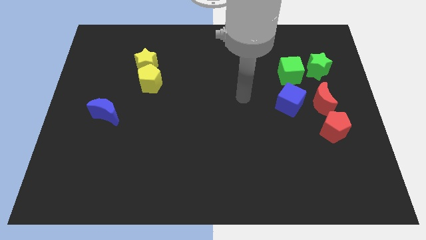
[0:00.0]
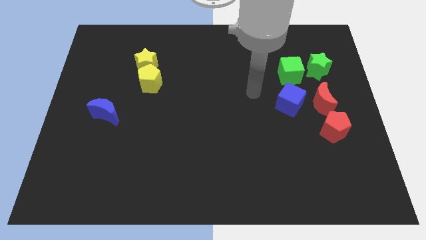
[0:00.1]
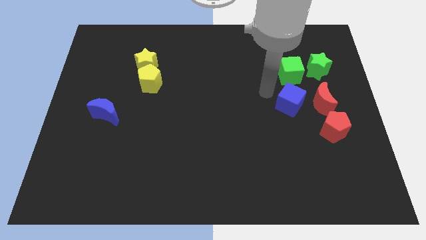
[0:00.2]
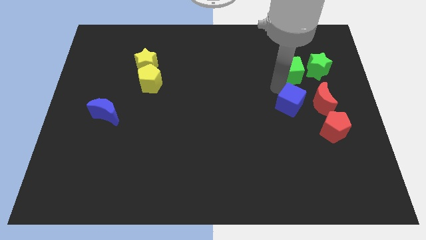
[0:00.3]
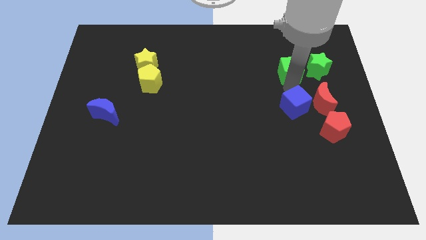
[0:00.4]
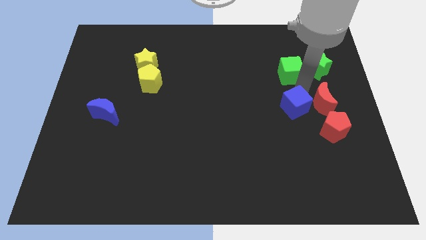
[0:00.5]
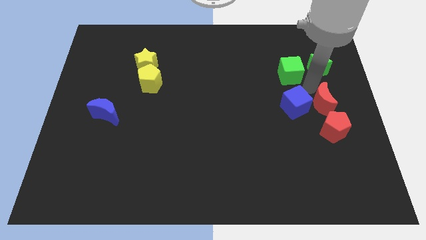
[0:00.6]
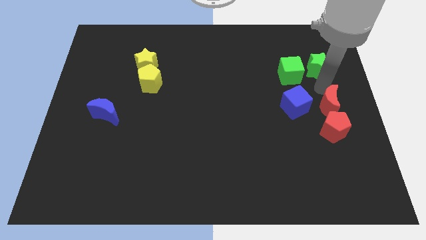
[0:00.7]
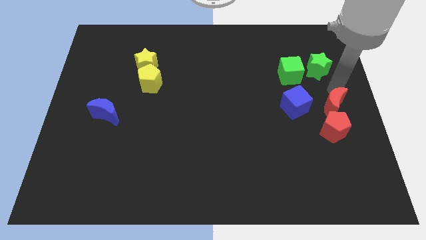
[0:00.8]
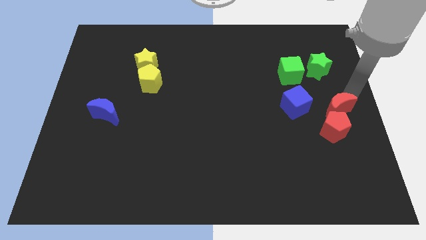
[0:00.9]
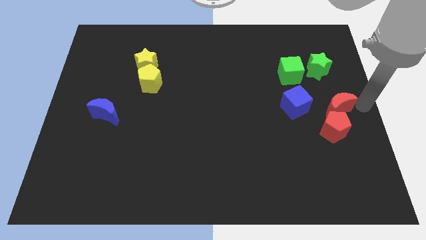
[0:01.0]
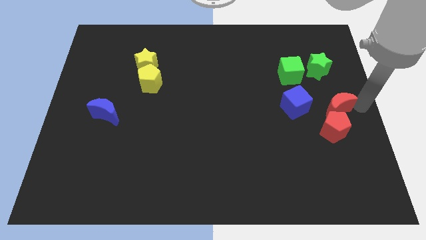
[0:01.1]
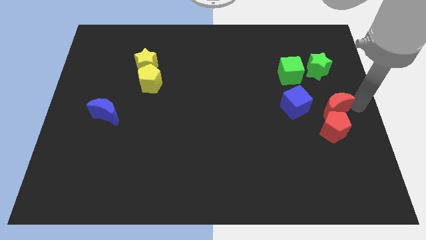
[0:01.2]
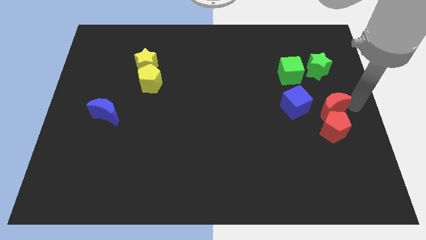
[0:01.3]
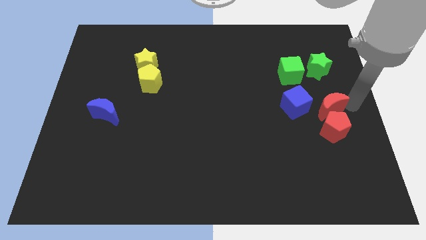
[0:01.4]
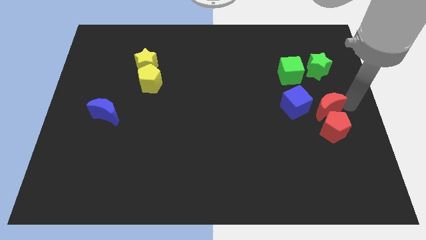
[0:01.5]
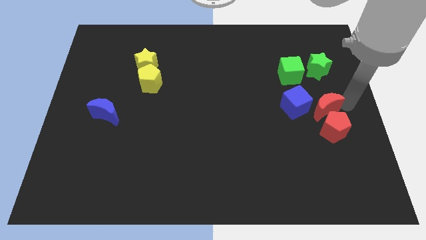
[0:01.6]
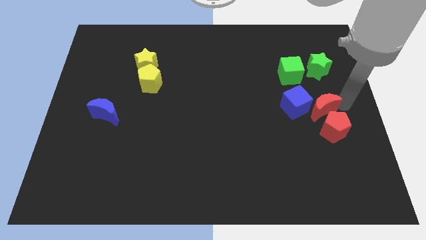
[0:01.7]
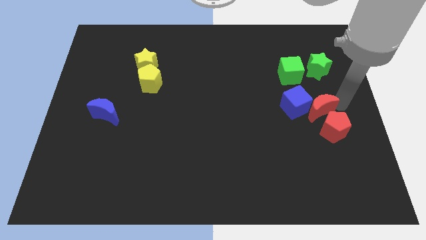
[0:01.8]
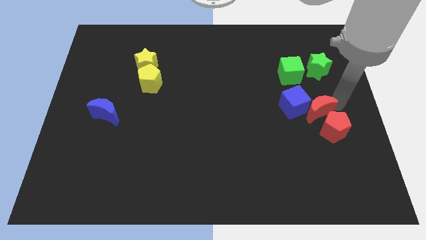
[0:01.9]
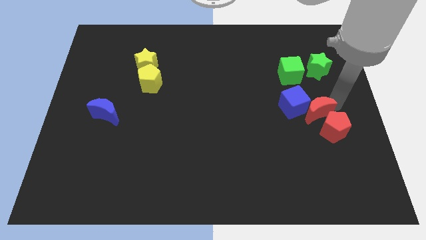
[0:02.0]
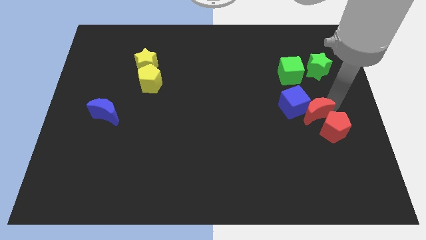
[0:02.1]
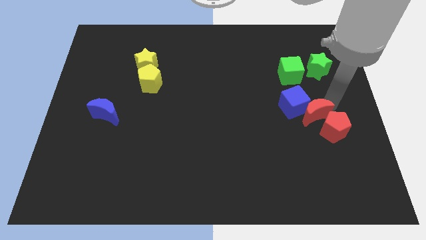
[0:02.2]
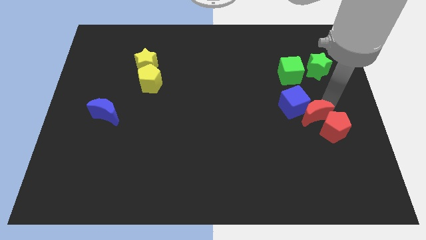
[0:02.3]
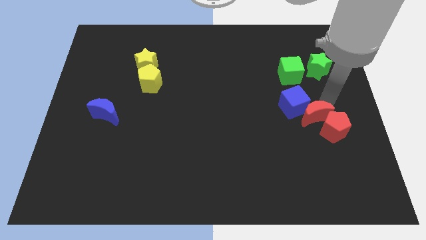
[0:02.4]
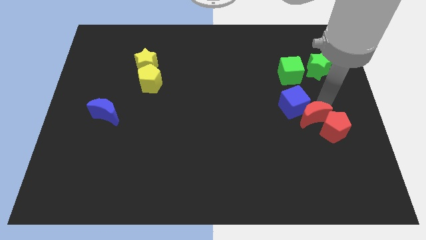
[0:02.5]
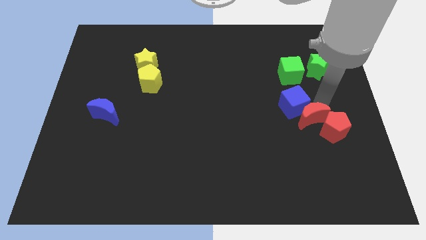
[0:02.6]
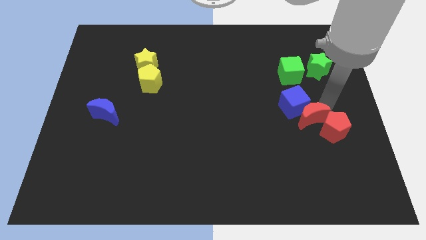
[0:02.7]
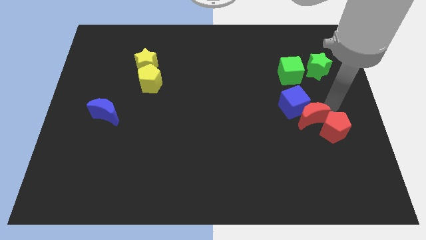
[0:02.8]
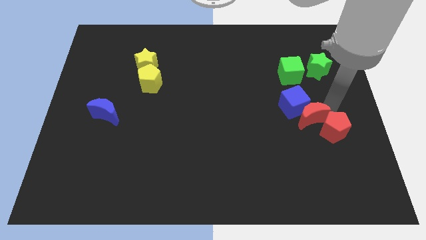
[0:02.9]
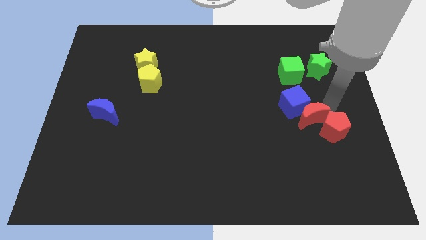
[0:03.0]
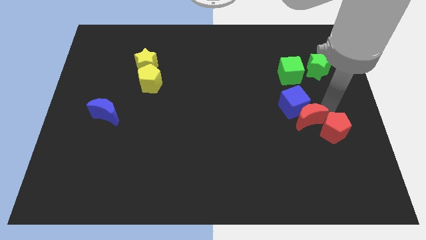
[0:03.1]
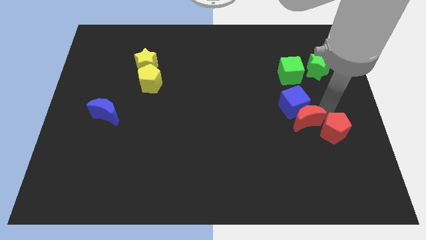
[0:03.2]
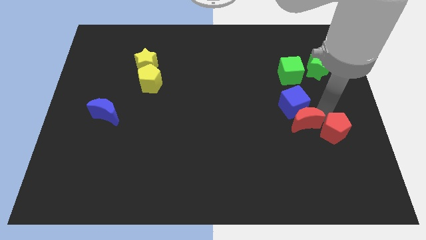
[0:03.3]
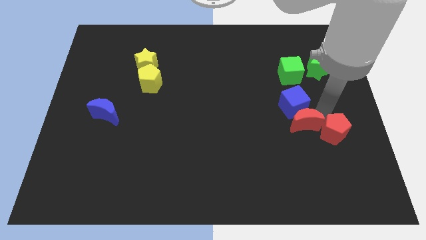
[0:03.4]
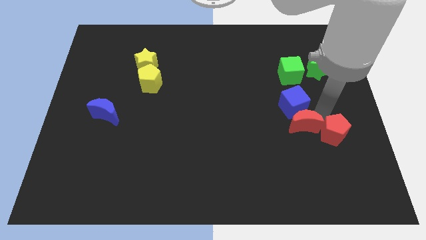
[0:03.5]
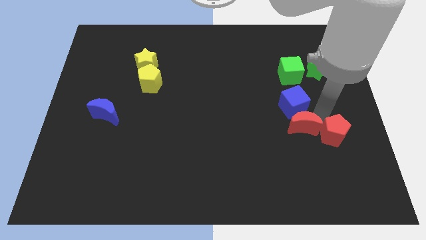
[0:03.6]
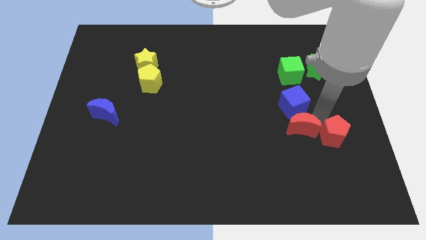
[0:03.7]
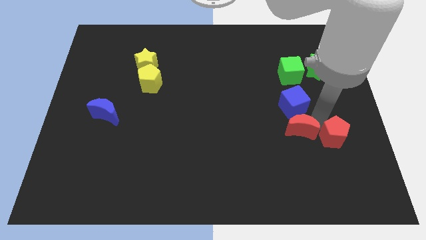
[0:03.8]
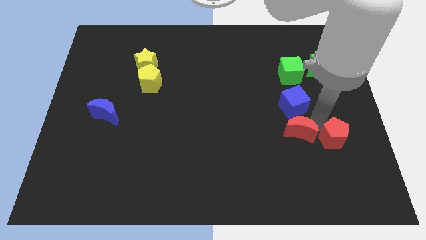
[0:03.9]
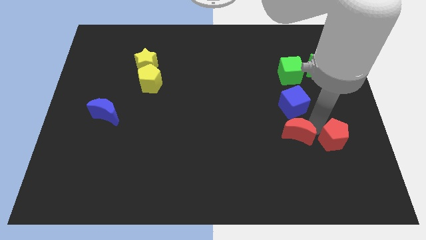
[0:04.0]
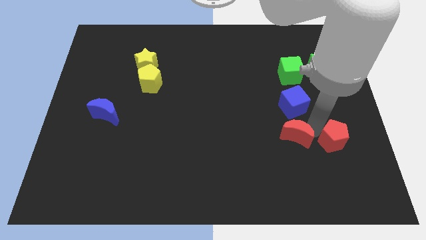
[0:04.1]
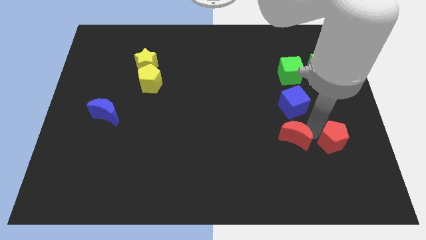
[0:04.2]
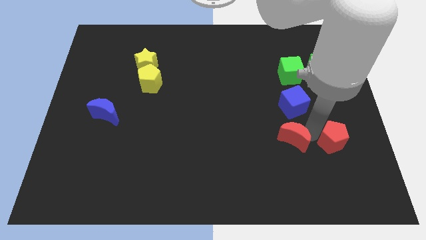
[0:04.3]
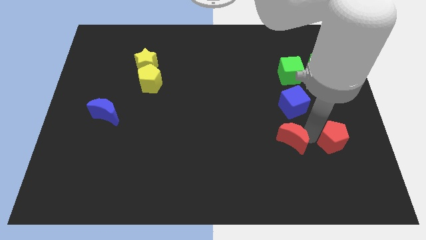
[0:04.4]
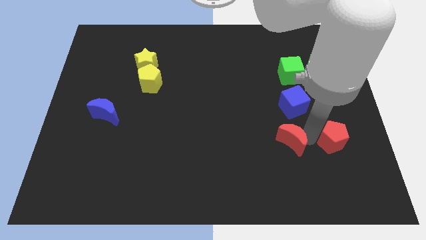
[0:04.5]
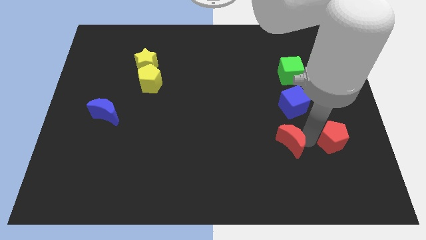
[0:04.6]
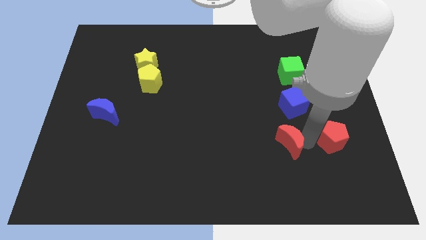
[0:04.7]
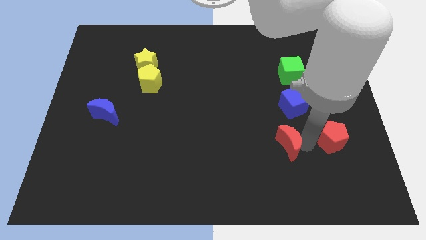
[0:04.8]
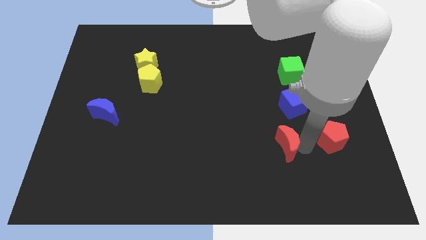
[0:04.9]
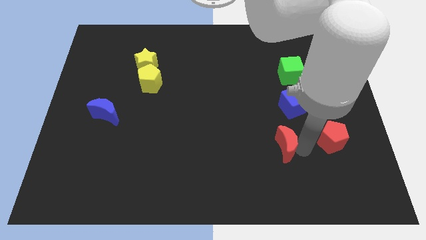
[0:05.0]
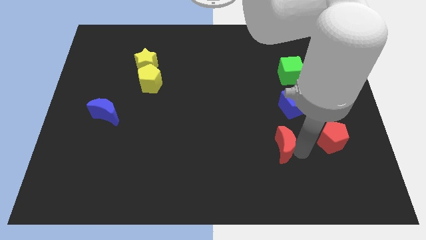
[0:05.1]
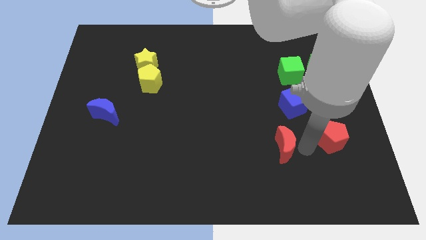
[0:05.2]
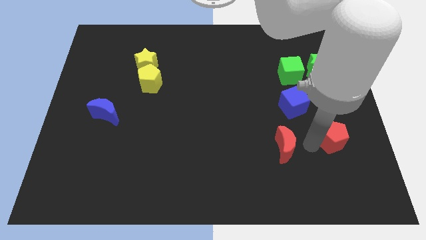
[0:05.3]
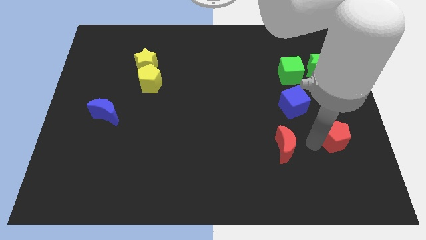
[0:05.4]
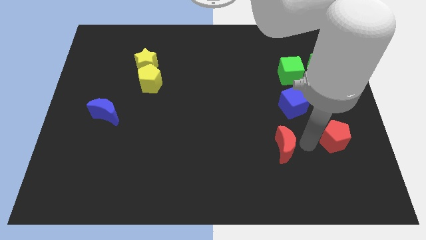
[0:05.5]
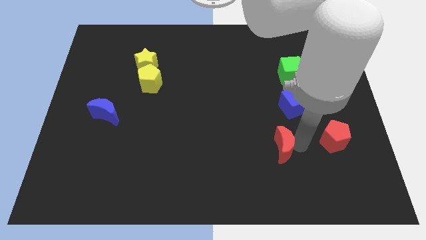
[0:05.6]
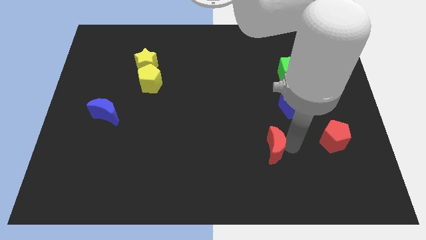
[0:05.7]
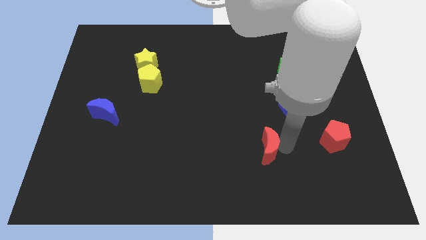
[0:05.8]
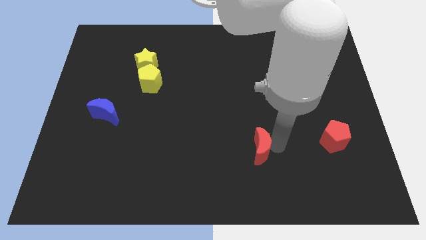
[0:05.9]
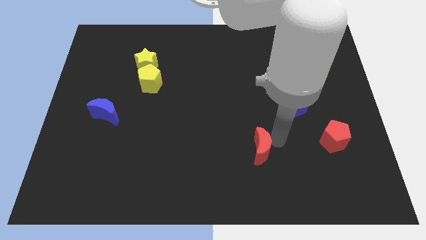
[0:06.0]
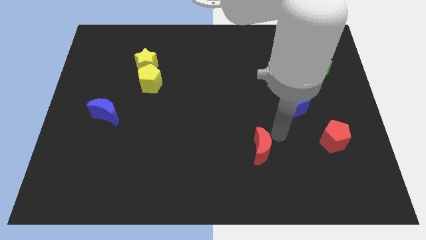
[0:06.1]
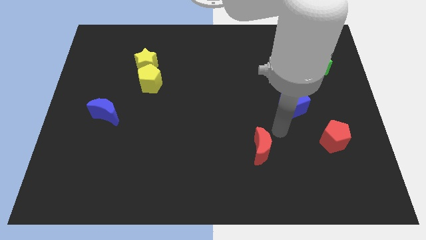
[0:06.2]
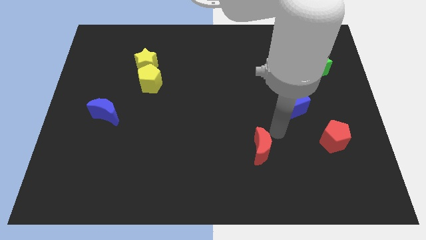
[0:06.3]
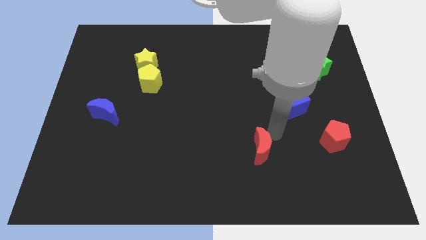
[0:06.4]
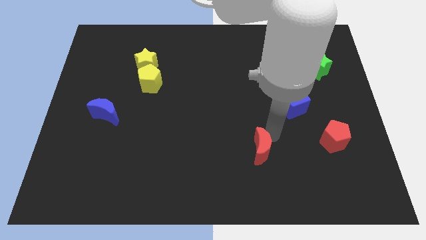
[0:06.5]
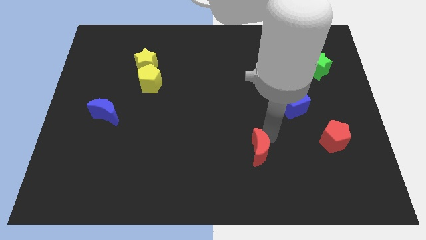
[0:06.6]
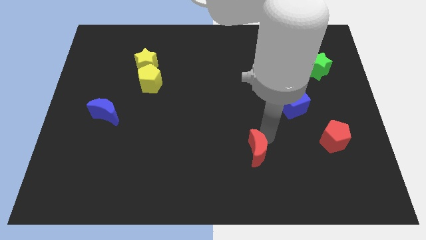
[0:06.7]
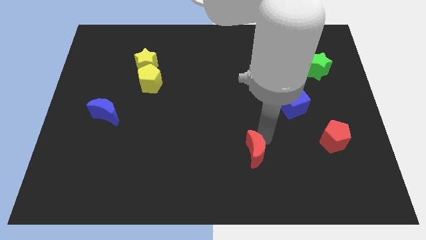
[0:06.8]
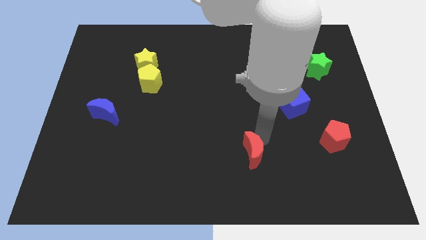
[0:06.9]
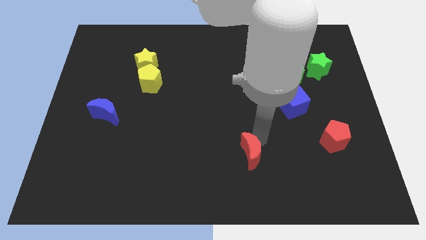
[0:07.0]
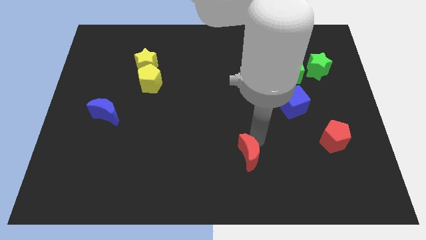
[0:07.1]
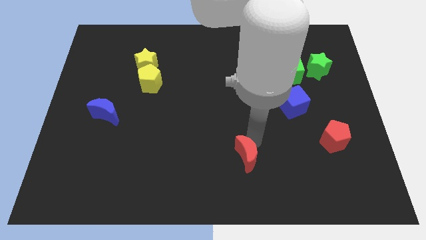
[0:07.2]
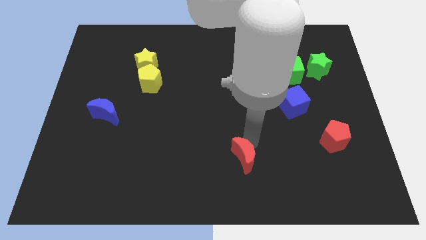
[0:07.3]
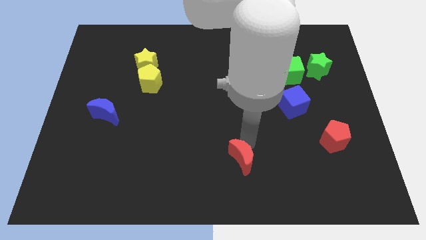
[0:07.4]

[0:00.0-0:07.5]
move the red moon to the bottom
